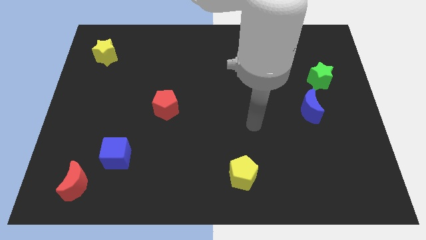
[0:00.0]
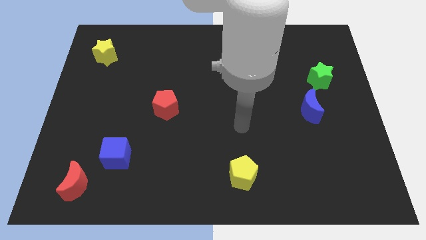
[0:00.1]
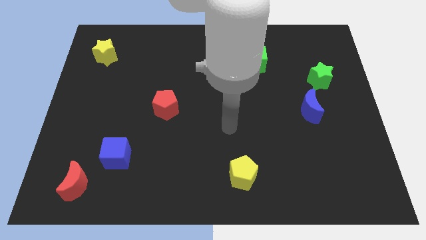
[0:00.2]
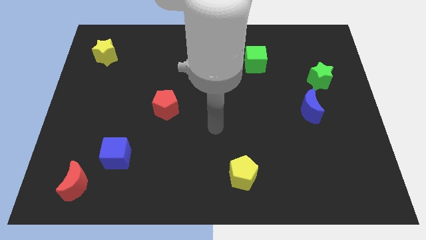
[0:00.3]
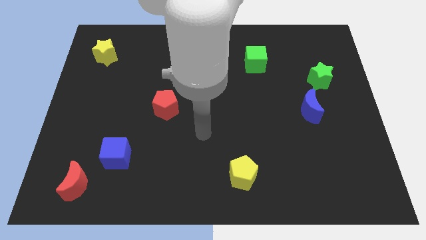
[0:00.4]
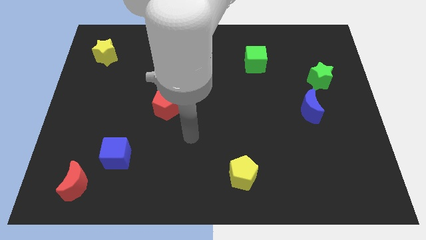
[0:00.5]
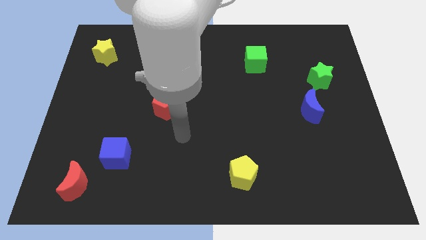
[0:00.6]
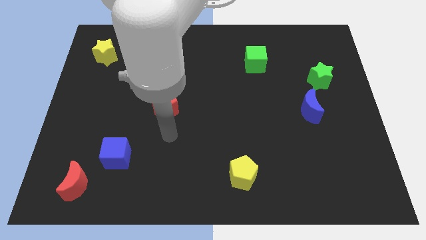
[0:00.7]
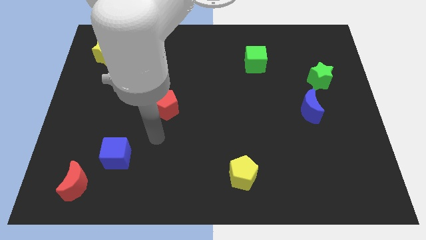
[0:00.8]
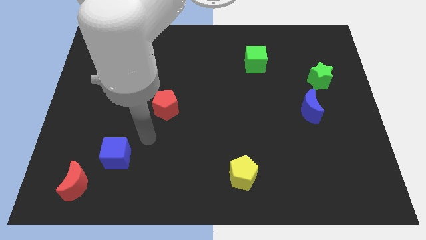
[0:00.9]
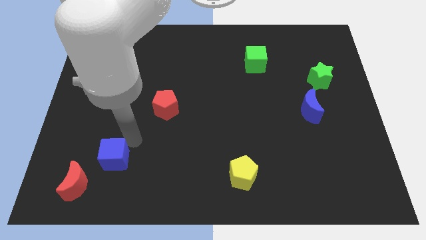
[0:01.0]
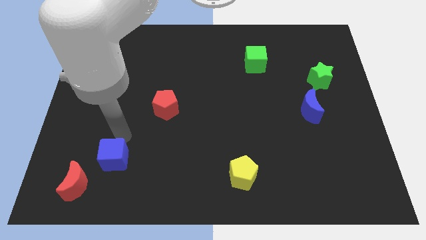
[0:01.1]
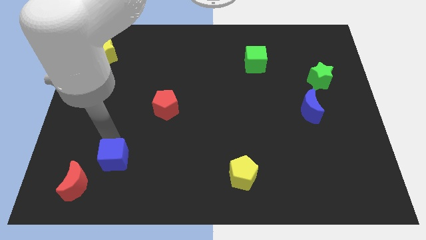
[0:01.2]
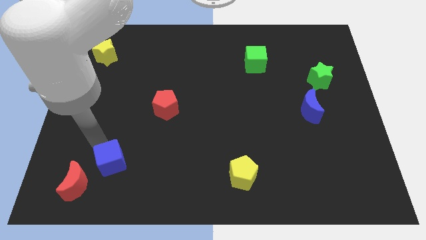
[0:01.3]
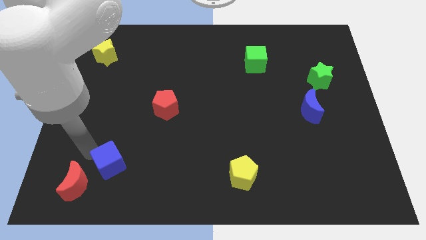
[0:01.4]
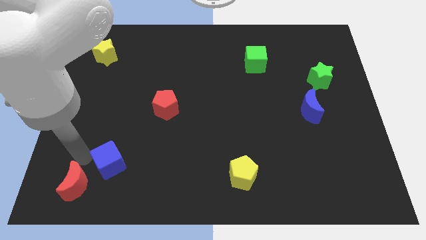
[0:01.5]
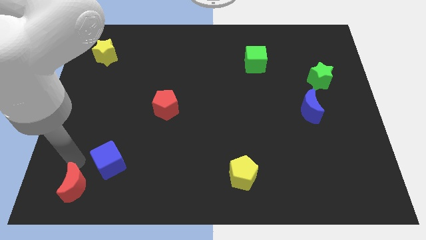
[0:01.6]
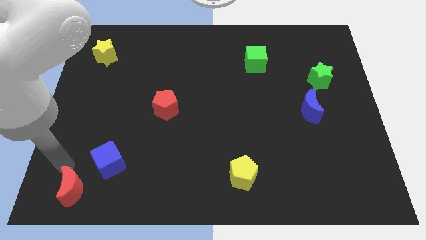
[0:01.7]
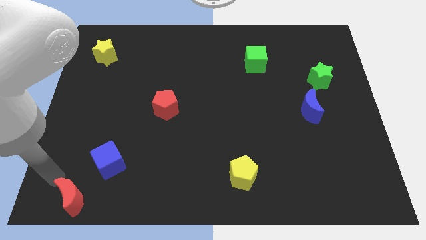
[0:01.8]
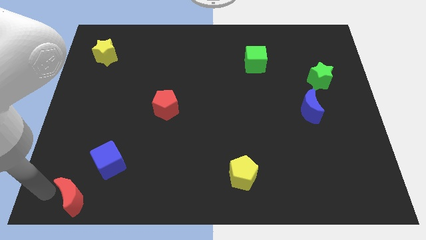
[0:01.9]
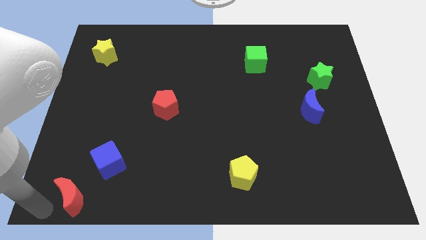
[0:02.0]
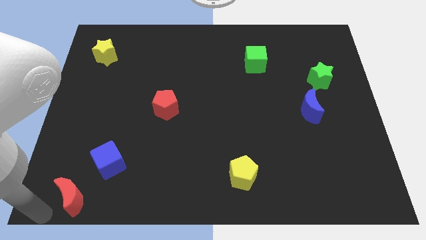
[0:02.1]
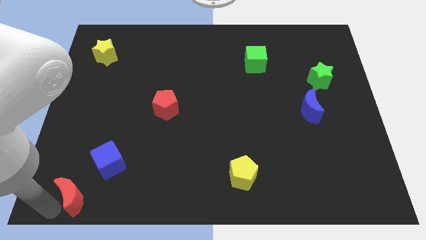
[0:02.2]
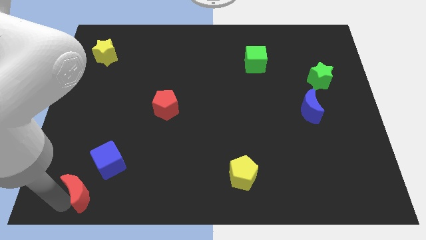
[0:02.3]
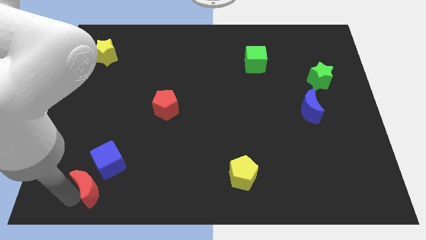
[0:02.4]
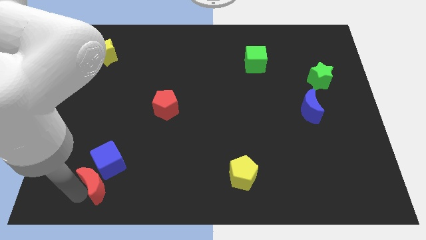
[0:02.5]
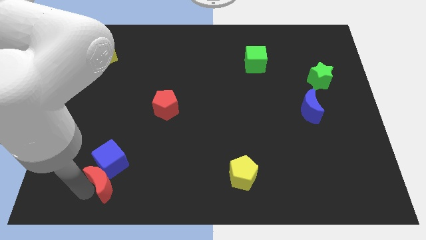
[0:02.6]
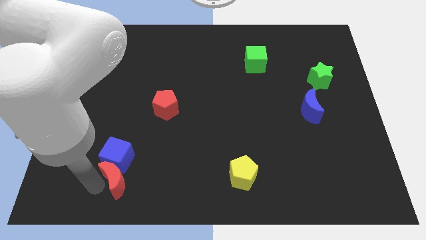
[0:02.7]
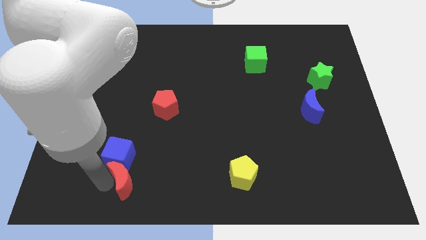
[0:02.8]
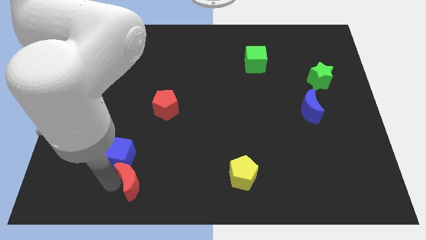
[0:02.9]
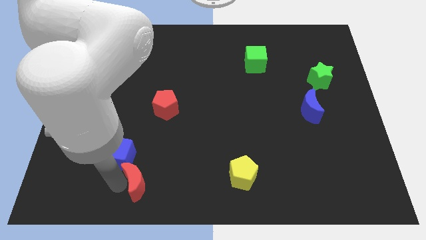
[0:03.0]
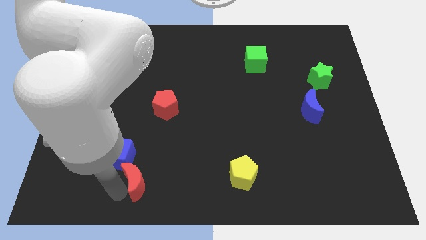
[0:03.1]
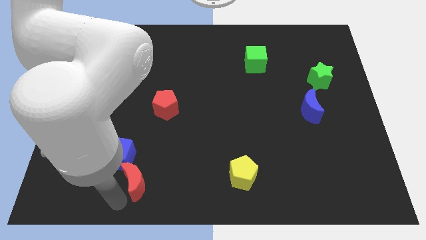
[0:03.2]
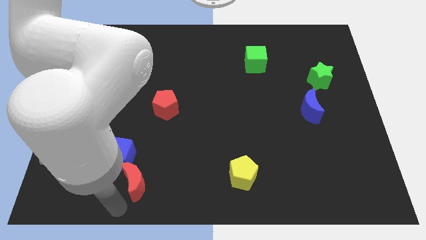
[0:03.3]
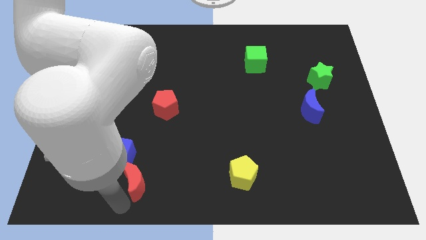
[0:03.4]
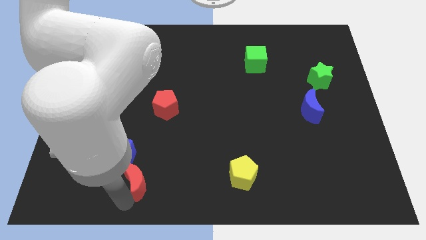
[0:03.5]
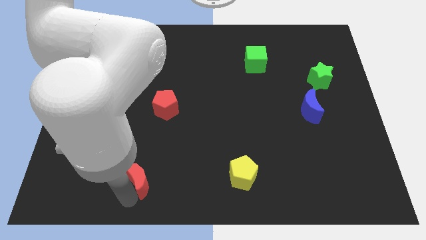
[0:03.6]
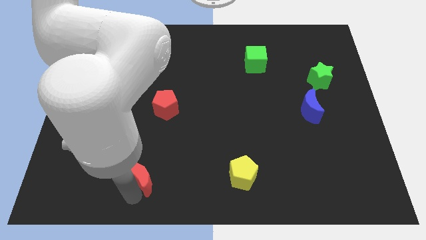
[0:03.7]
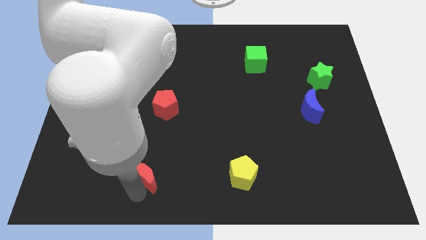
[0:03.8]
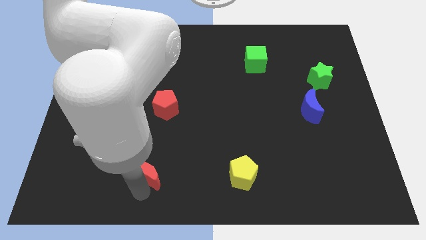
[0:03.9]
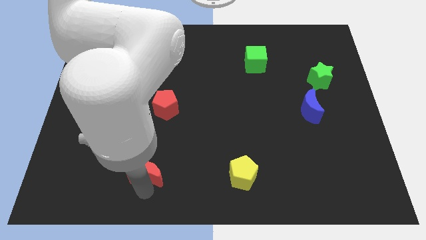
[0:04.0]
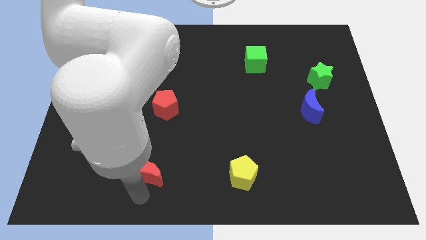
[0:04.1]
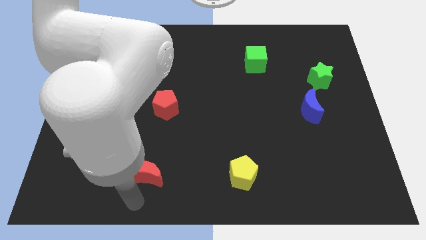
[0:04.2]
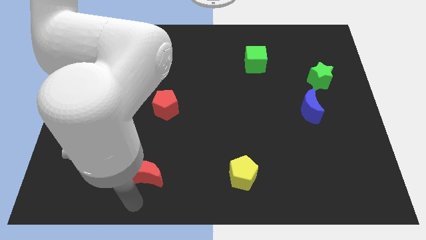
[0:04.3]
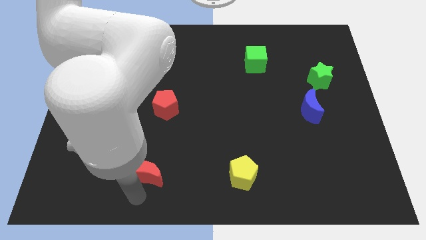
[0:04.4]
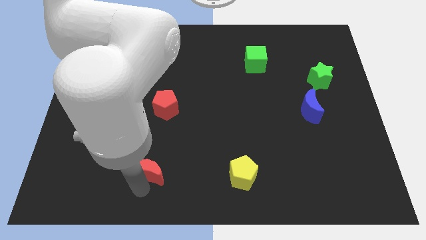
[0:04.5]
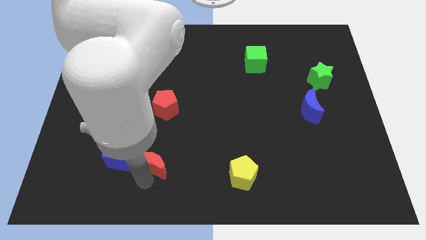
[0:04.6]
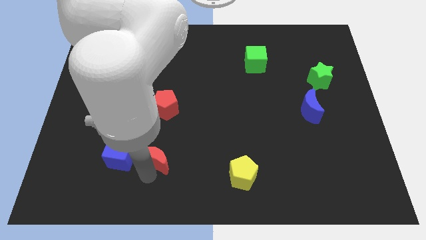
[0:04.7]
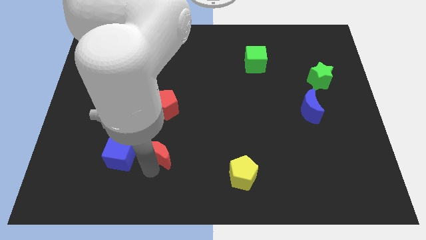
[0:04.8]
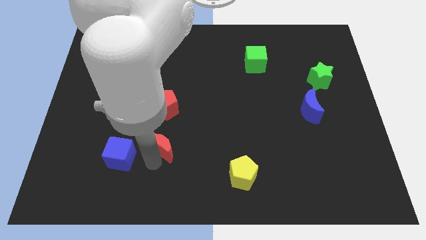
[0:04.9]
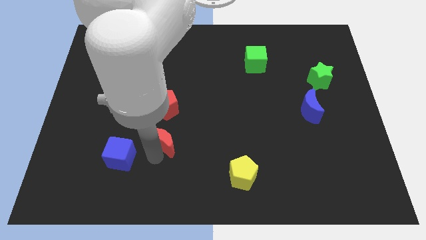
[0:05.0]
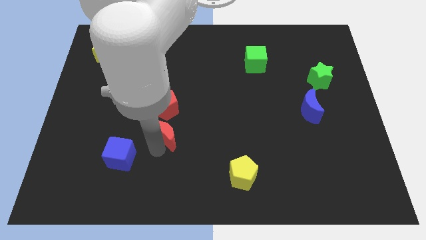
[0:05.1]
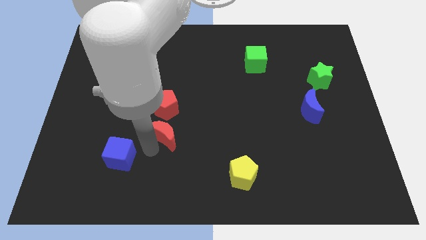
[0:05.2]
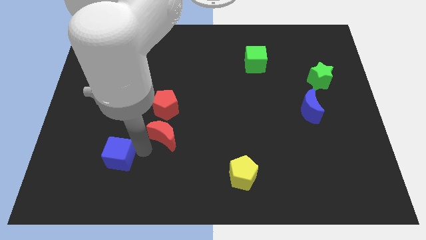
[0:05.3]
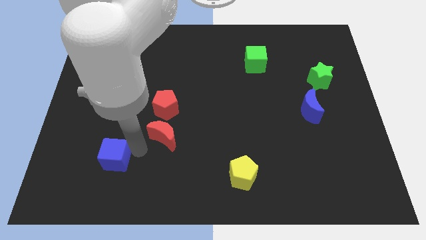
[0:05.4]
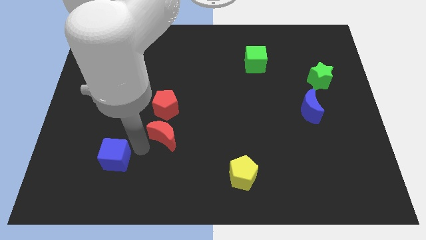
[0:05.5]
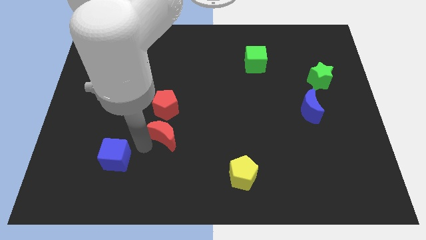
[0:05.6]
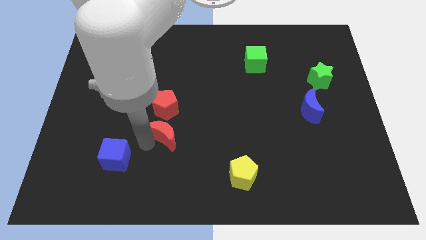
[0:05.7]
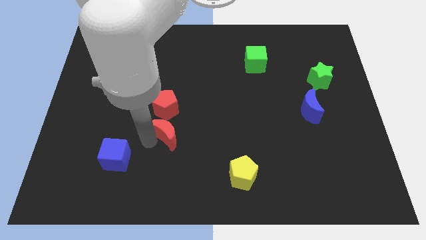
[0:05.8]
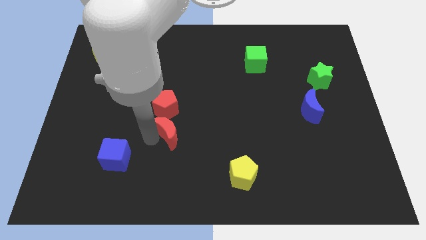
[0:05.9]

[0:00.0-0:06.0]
put the red moon diagonally down and to the right of the red pentagon

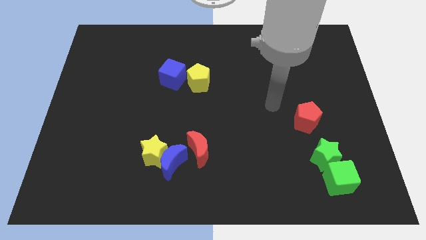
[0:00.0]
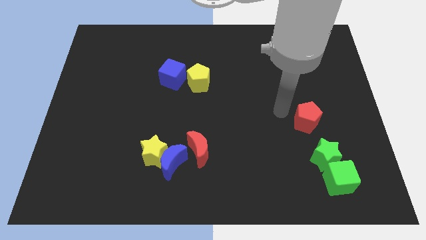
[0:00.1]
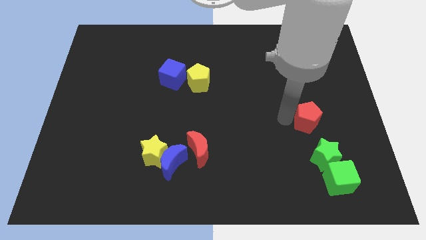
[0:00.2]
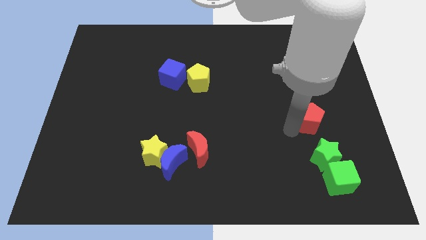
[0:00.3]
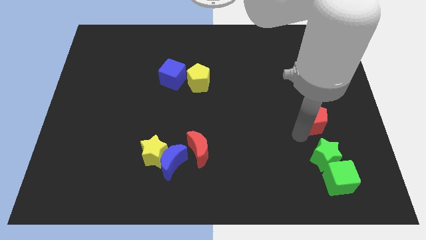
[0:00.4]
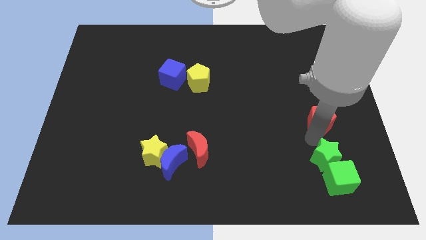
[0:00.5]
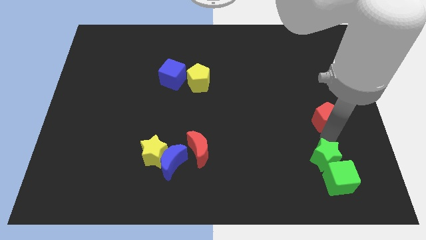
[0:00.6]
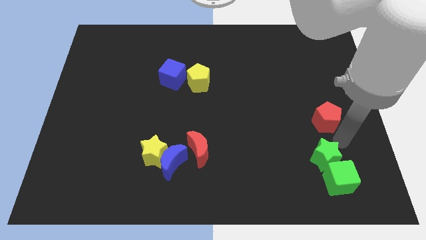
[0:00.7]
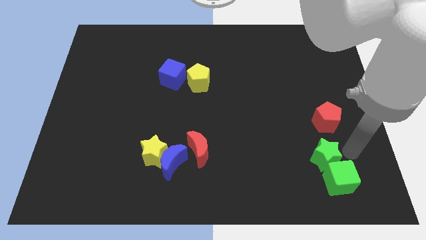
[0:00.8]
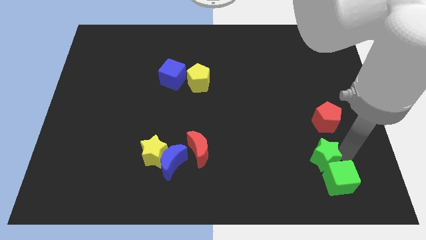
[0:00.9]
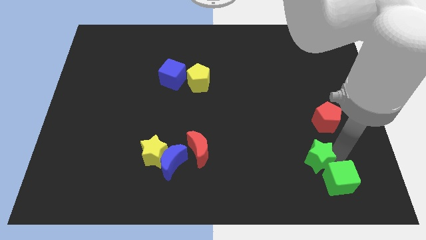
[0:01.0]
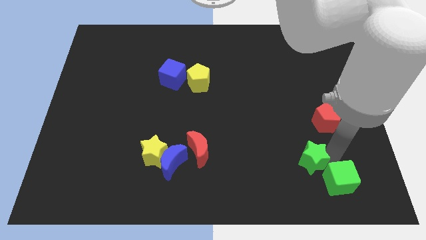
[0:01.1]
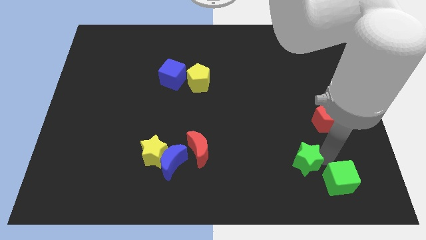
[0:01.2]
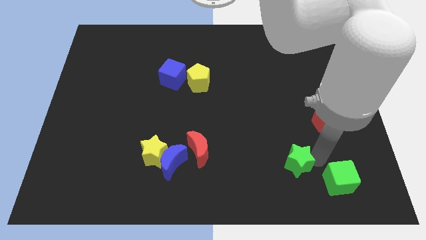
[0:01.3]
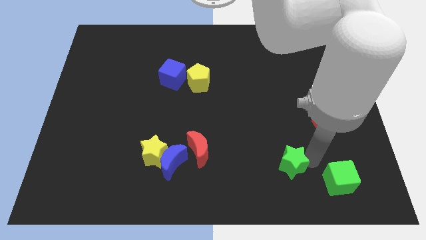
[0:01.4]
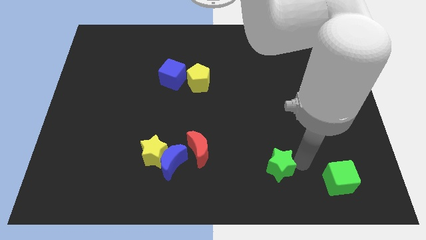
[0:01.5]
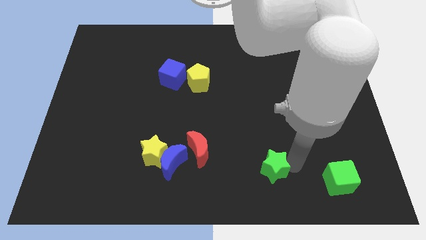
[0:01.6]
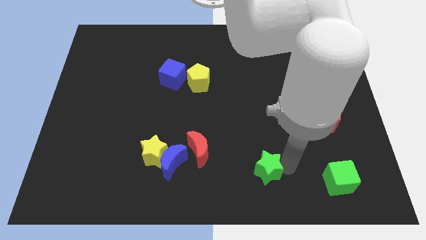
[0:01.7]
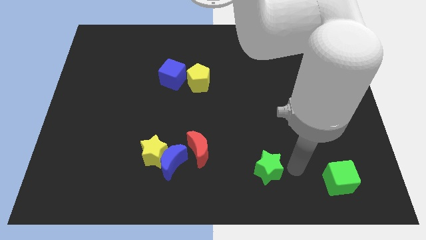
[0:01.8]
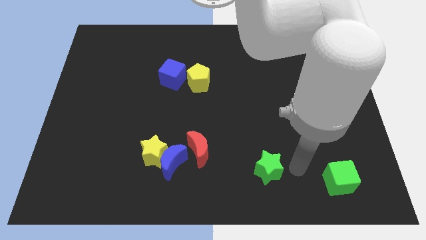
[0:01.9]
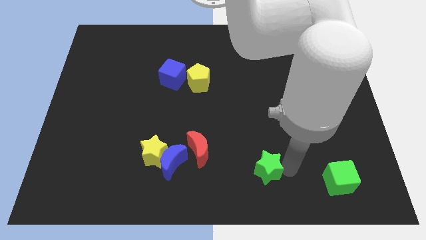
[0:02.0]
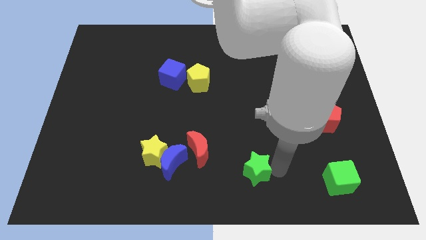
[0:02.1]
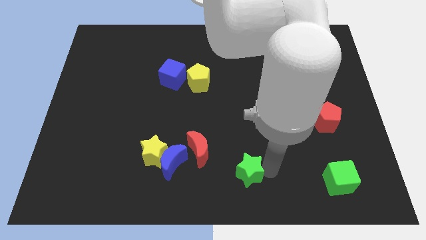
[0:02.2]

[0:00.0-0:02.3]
slide the green star diagonally down and to the right of the red moon

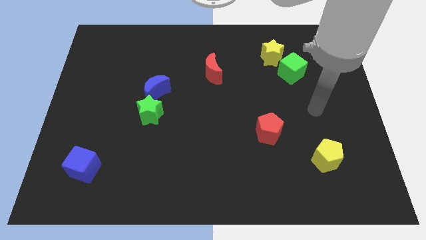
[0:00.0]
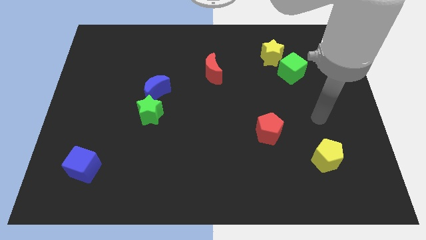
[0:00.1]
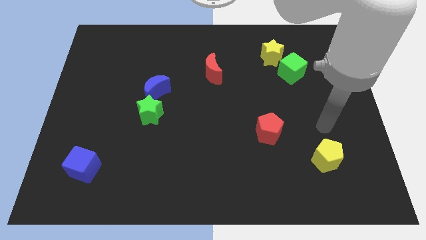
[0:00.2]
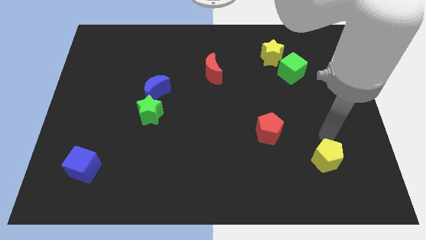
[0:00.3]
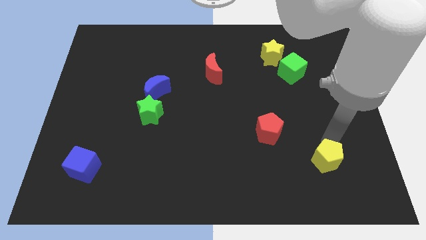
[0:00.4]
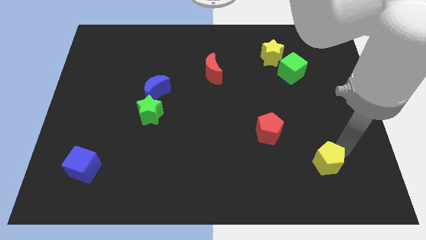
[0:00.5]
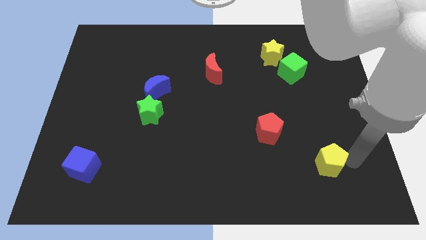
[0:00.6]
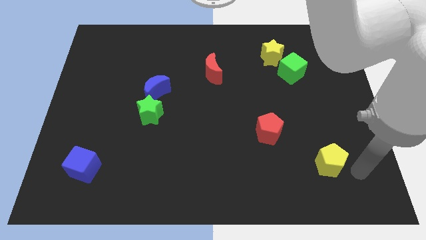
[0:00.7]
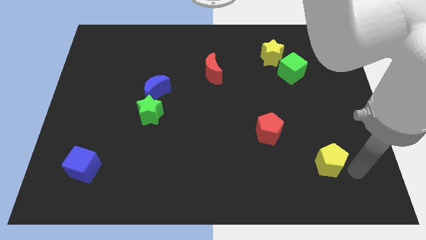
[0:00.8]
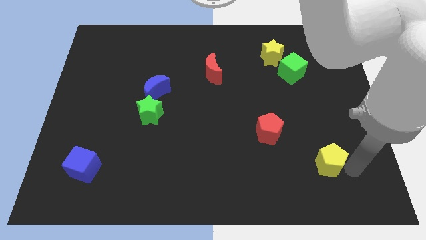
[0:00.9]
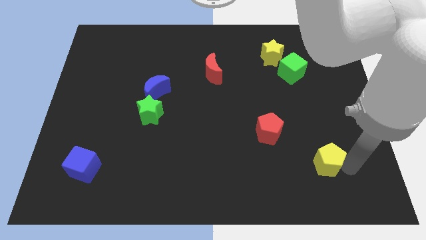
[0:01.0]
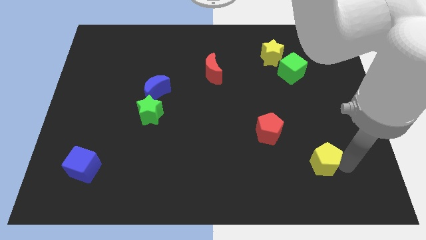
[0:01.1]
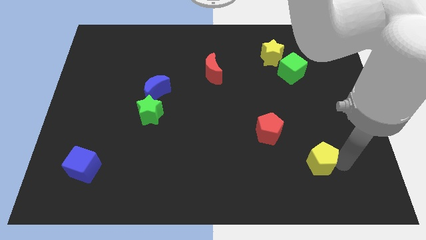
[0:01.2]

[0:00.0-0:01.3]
move the yellow pentagon to the bottom right of the red pentagon
